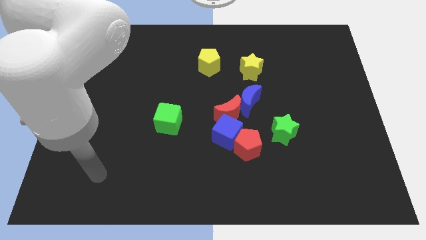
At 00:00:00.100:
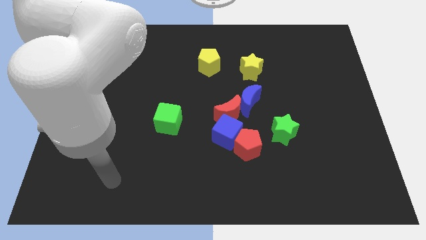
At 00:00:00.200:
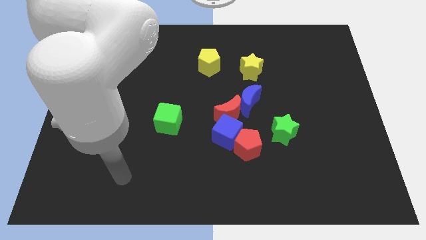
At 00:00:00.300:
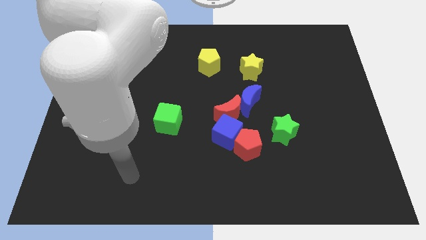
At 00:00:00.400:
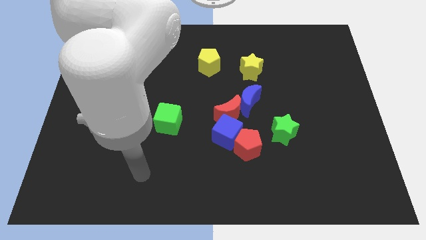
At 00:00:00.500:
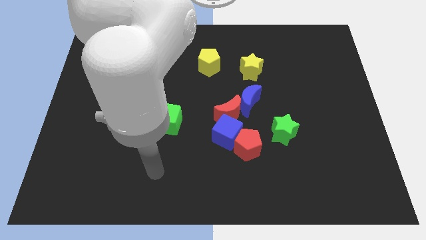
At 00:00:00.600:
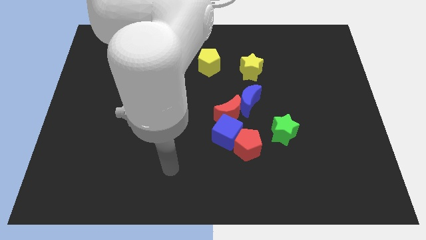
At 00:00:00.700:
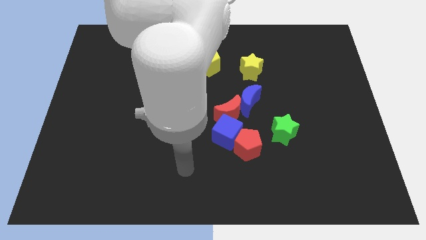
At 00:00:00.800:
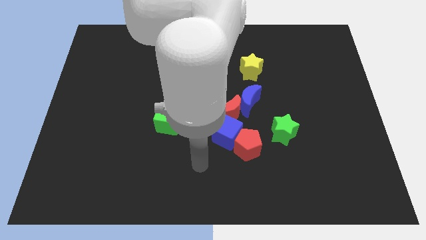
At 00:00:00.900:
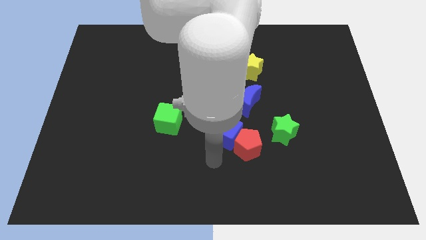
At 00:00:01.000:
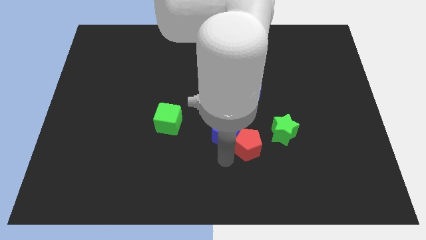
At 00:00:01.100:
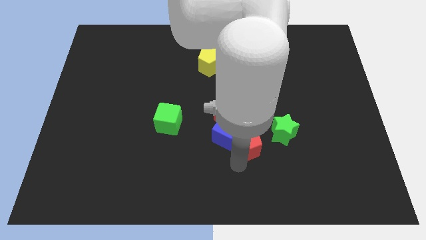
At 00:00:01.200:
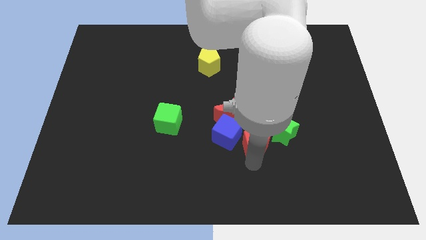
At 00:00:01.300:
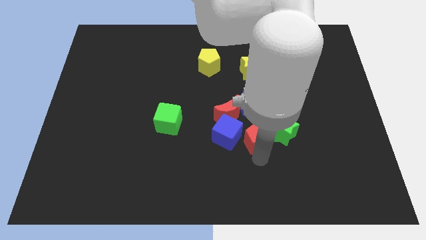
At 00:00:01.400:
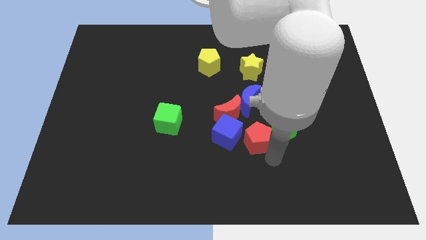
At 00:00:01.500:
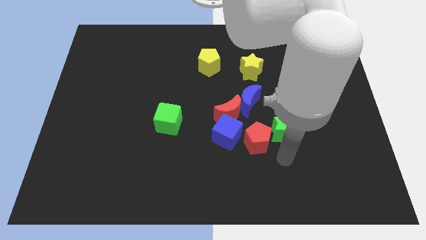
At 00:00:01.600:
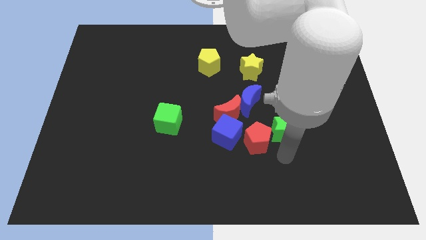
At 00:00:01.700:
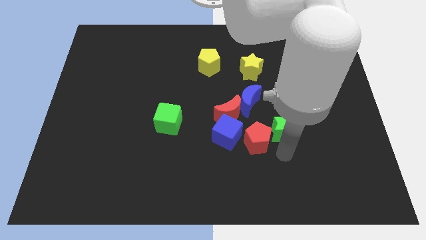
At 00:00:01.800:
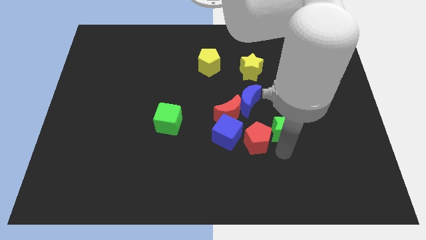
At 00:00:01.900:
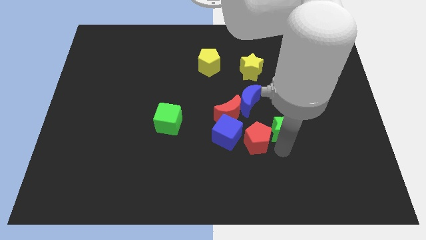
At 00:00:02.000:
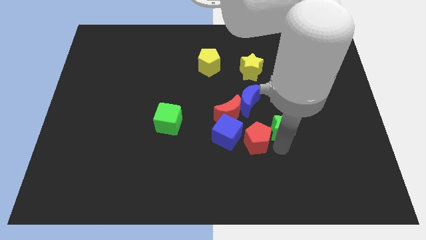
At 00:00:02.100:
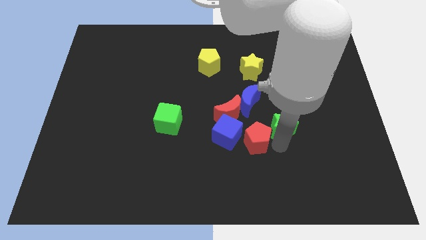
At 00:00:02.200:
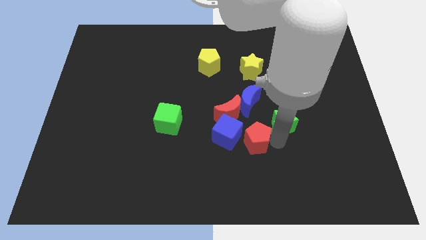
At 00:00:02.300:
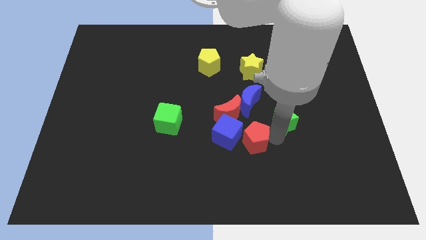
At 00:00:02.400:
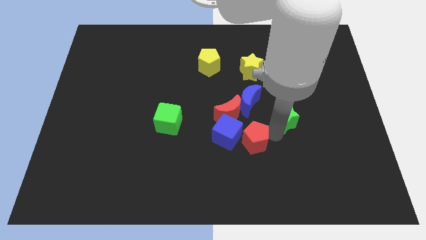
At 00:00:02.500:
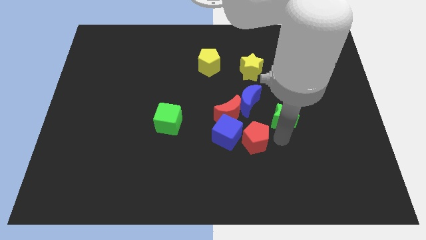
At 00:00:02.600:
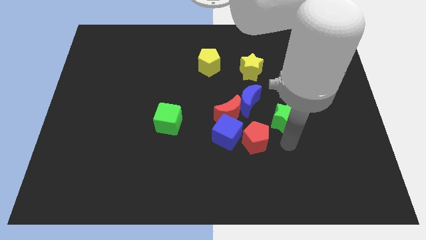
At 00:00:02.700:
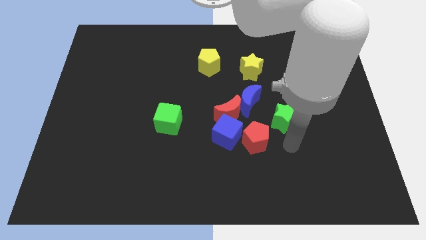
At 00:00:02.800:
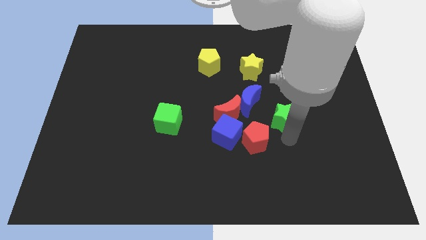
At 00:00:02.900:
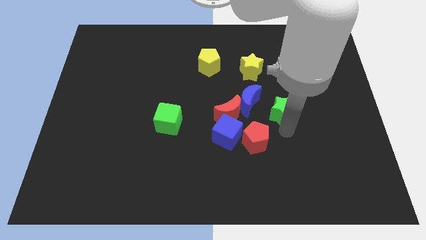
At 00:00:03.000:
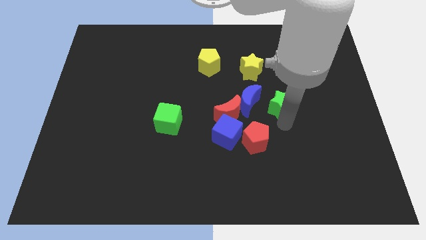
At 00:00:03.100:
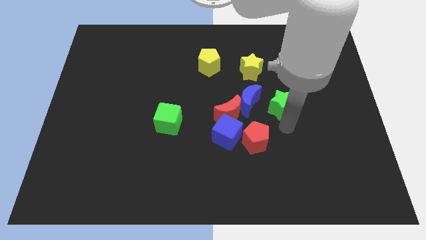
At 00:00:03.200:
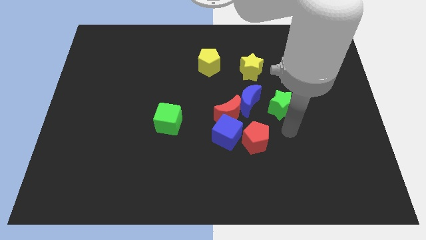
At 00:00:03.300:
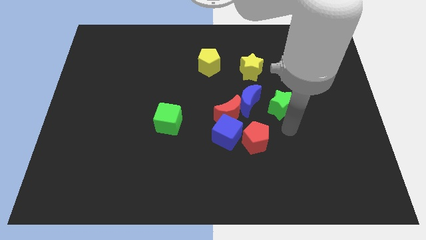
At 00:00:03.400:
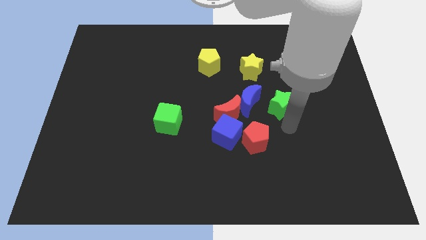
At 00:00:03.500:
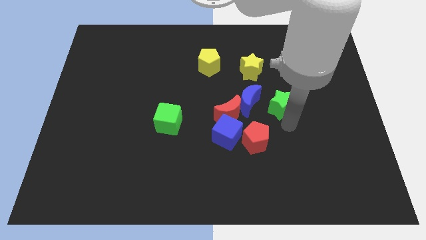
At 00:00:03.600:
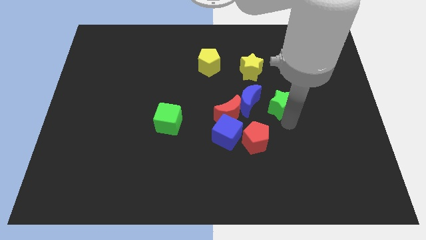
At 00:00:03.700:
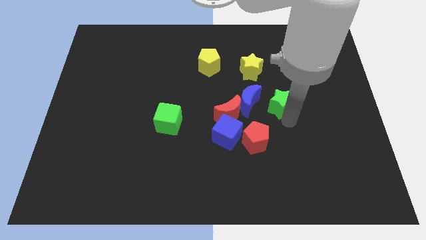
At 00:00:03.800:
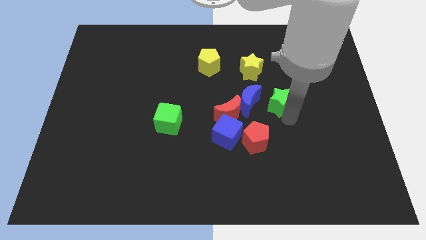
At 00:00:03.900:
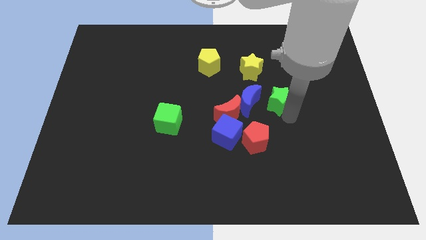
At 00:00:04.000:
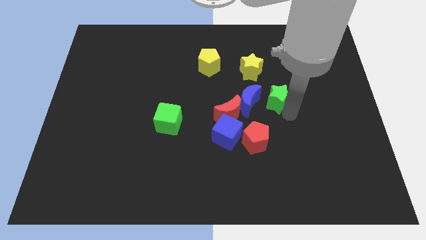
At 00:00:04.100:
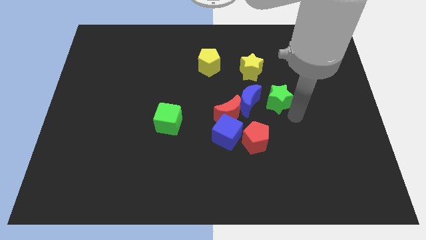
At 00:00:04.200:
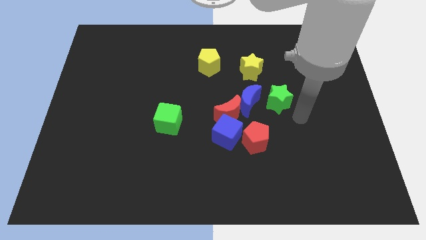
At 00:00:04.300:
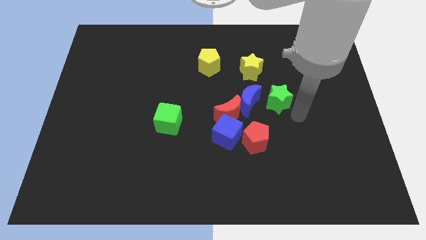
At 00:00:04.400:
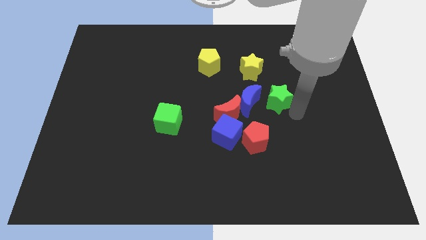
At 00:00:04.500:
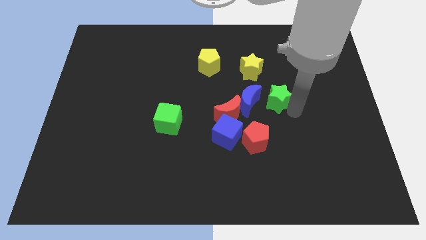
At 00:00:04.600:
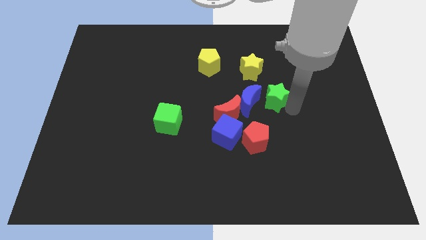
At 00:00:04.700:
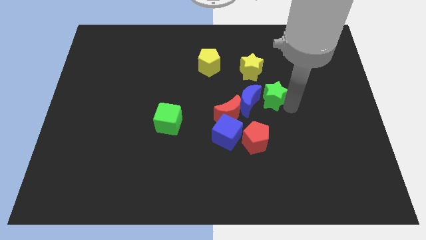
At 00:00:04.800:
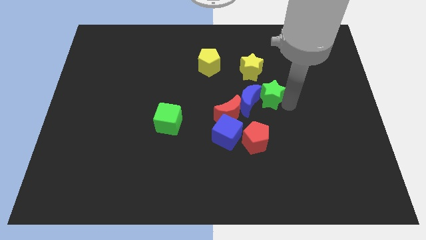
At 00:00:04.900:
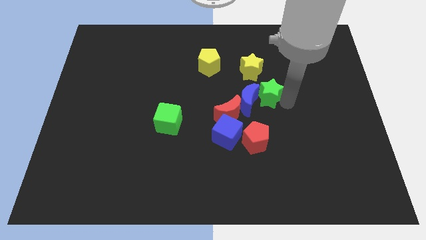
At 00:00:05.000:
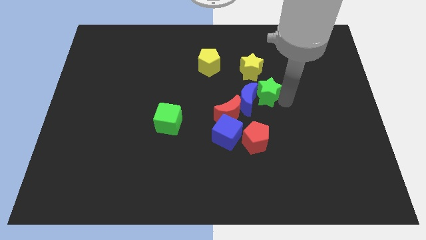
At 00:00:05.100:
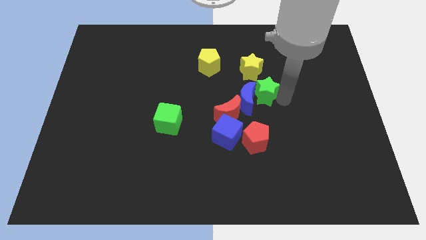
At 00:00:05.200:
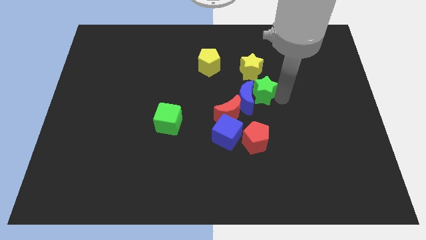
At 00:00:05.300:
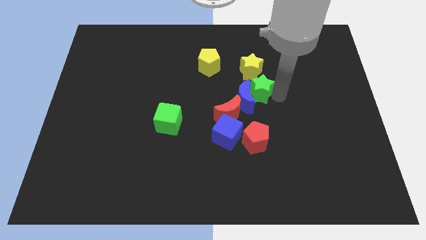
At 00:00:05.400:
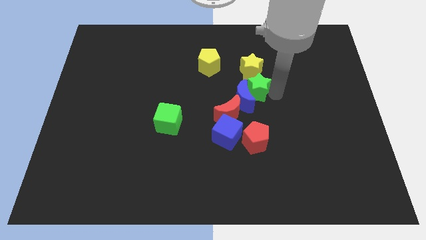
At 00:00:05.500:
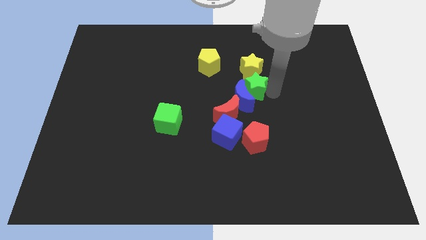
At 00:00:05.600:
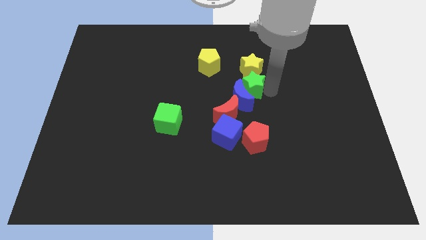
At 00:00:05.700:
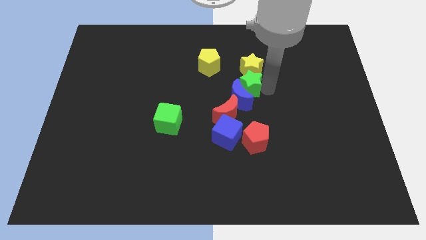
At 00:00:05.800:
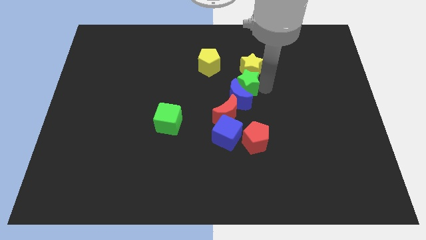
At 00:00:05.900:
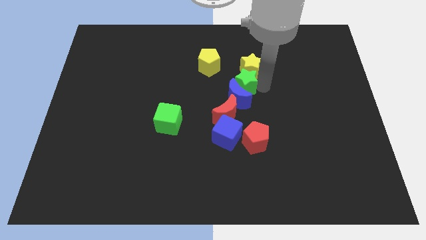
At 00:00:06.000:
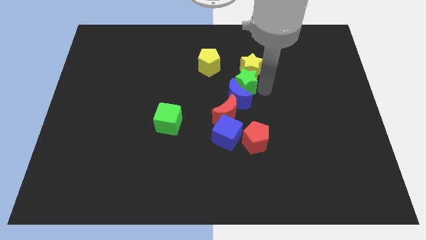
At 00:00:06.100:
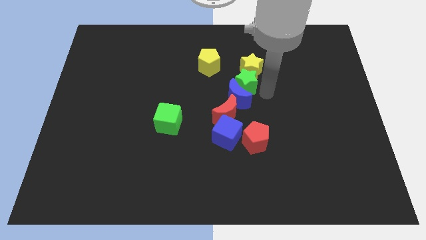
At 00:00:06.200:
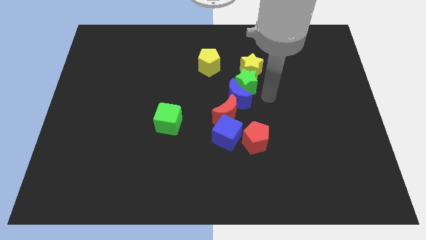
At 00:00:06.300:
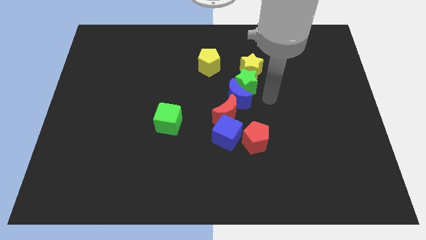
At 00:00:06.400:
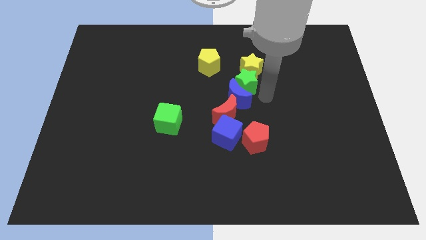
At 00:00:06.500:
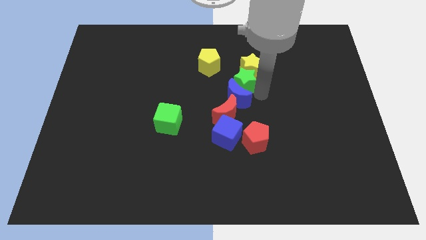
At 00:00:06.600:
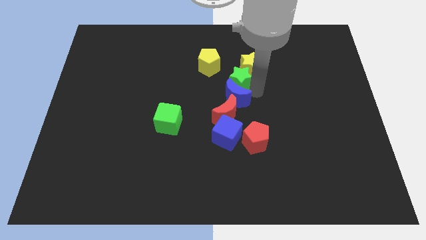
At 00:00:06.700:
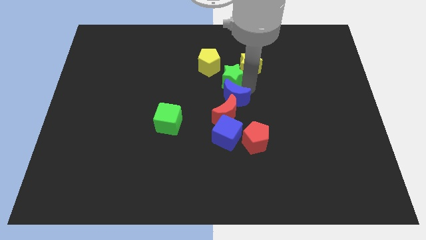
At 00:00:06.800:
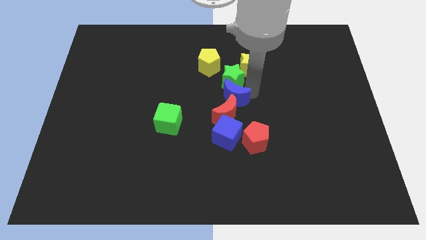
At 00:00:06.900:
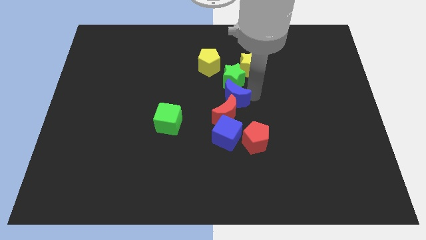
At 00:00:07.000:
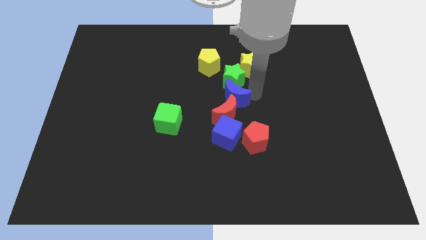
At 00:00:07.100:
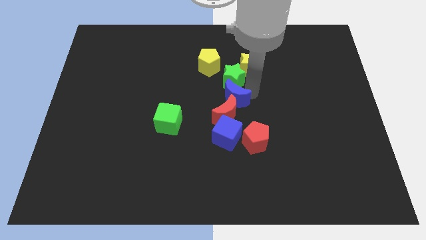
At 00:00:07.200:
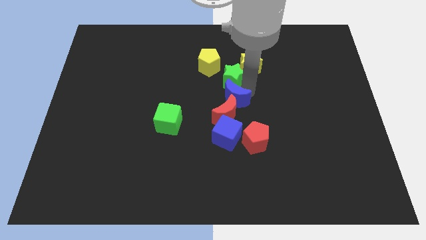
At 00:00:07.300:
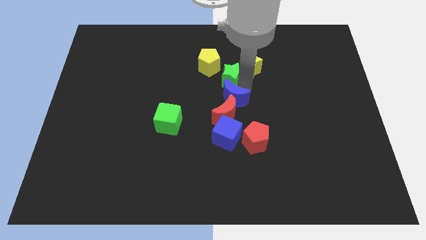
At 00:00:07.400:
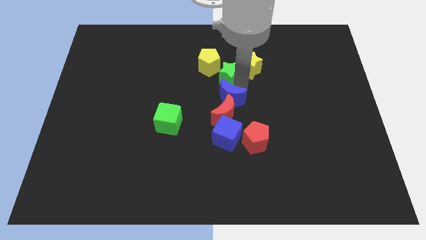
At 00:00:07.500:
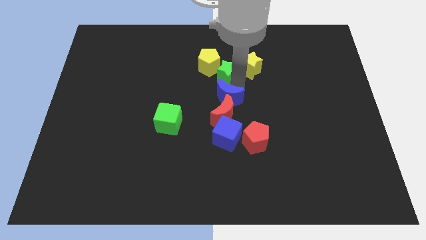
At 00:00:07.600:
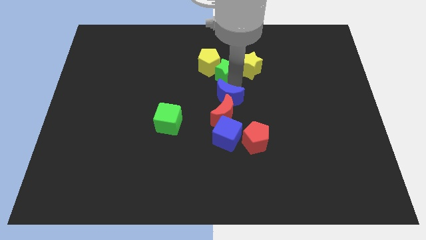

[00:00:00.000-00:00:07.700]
put the green star next to the yellow pentagon
